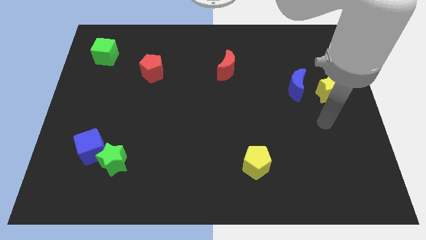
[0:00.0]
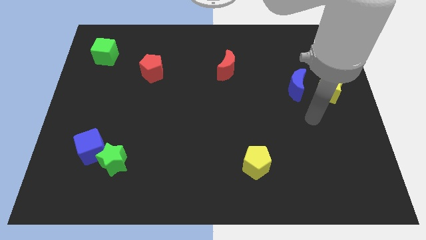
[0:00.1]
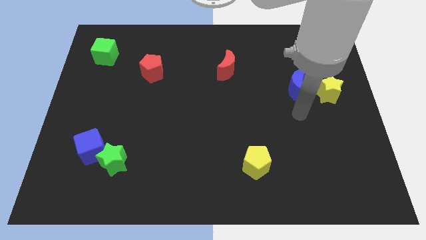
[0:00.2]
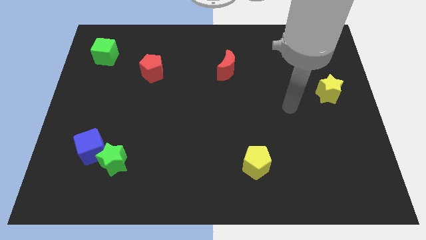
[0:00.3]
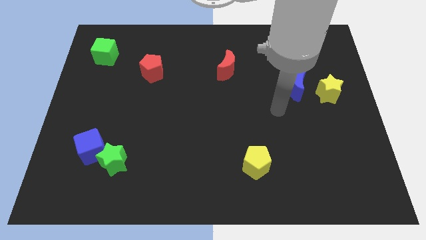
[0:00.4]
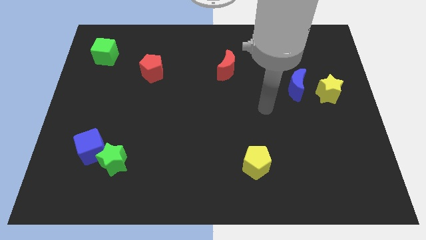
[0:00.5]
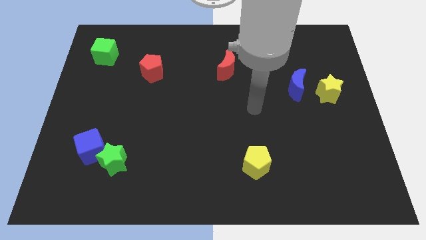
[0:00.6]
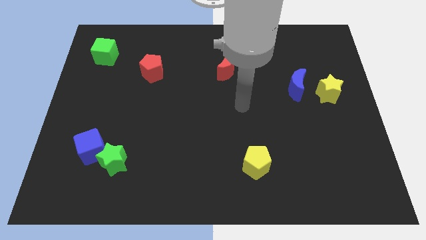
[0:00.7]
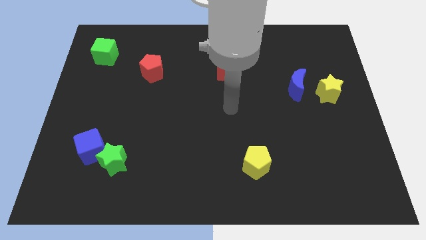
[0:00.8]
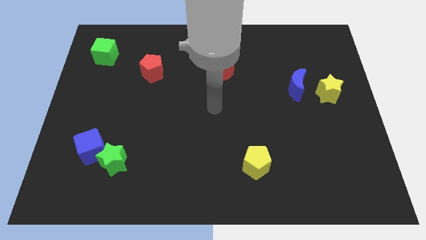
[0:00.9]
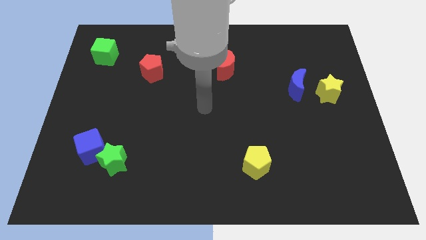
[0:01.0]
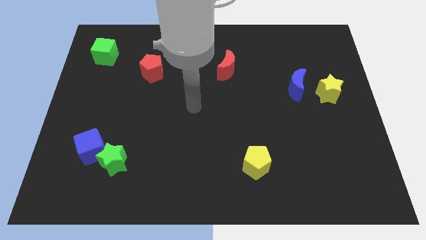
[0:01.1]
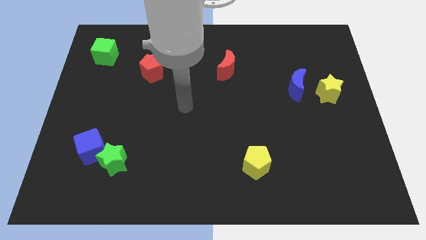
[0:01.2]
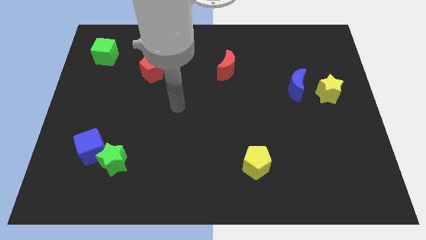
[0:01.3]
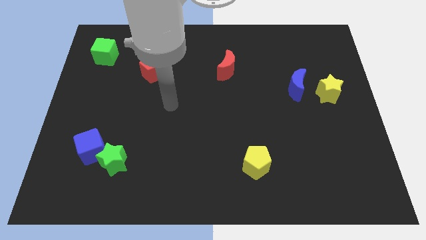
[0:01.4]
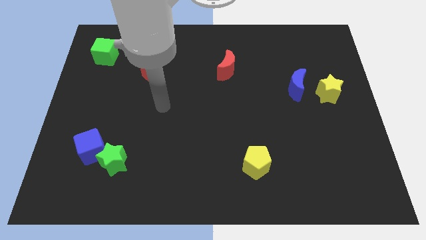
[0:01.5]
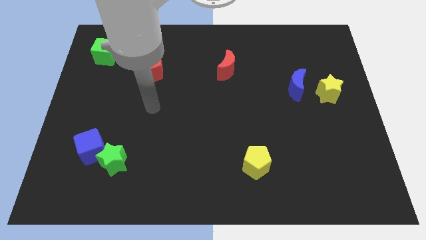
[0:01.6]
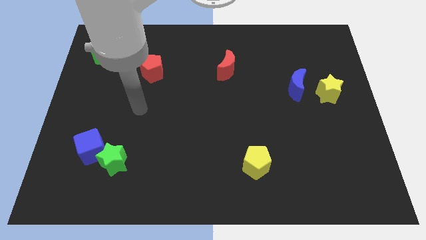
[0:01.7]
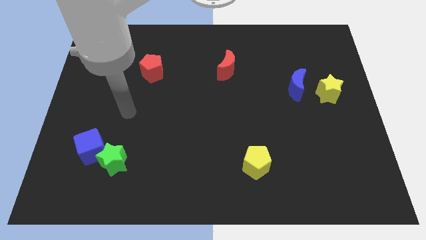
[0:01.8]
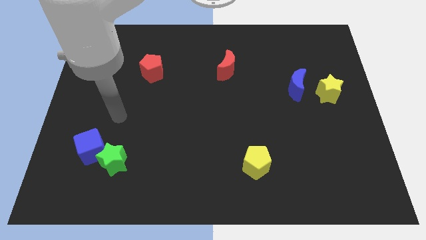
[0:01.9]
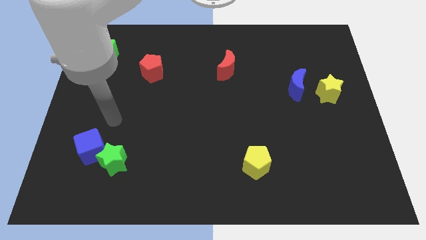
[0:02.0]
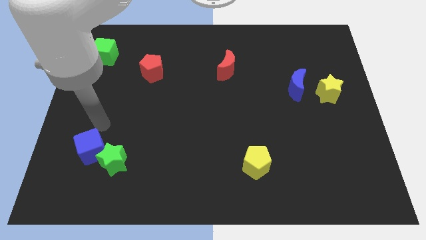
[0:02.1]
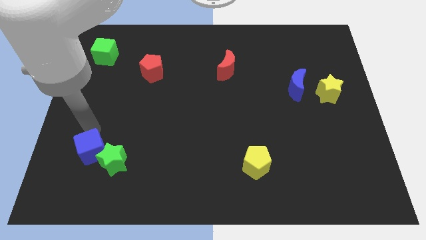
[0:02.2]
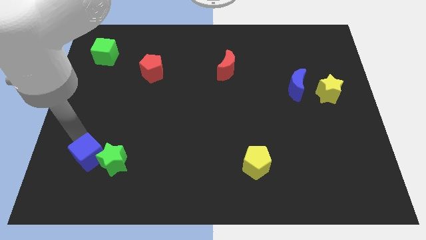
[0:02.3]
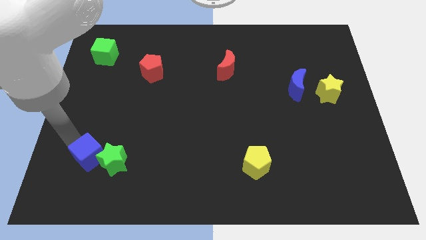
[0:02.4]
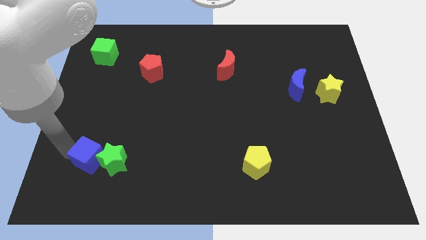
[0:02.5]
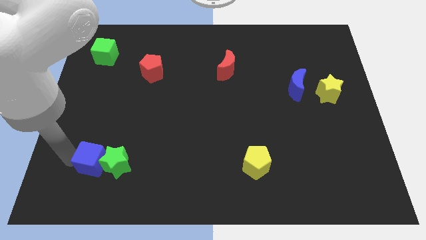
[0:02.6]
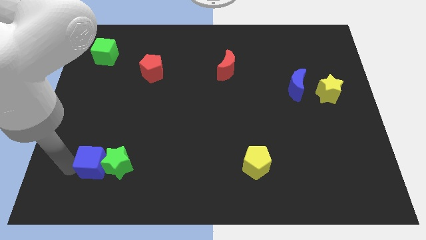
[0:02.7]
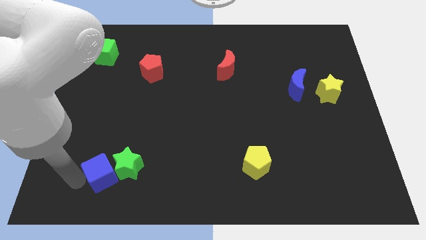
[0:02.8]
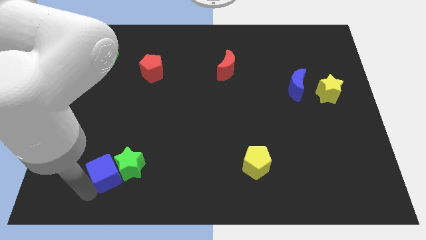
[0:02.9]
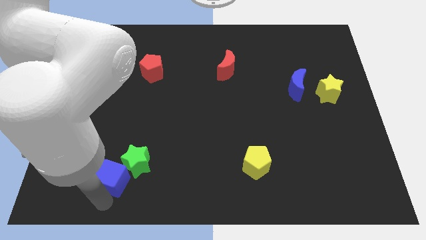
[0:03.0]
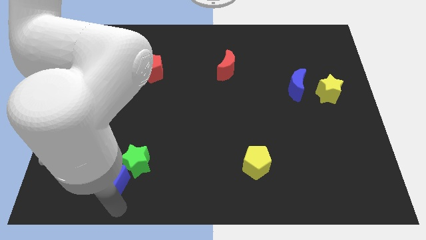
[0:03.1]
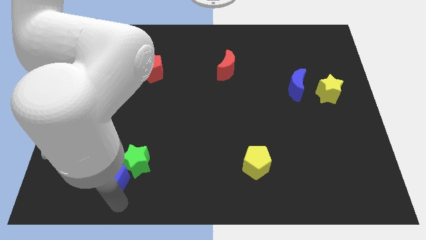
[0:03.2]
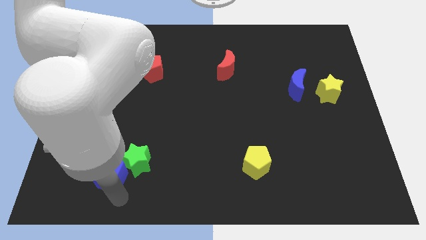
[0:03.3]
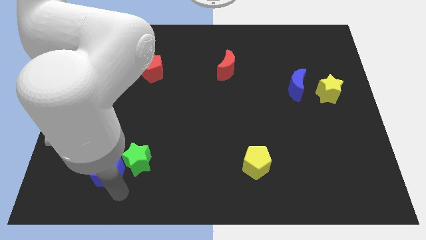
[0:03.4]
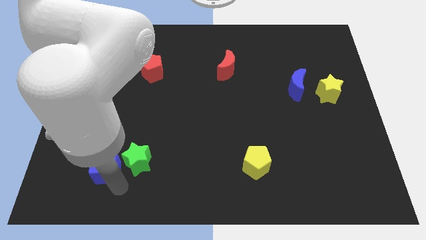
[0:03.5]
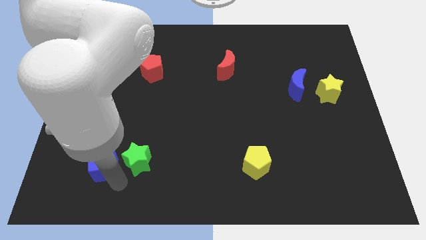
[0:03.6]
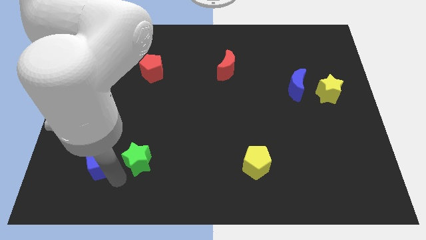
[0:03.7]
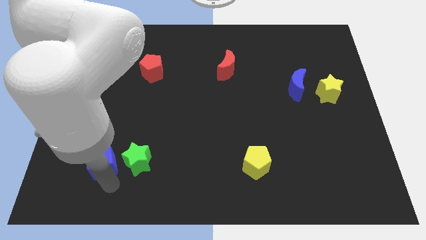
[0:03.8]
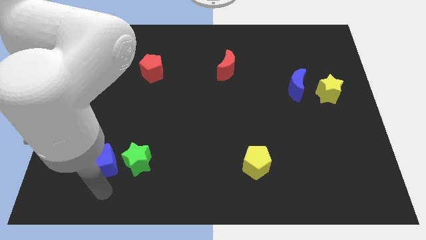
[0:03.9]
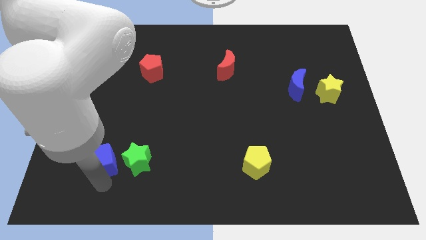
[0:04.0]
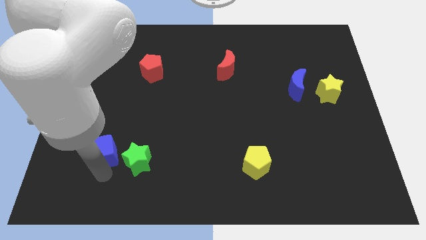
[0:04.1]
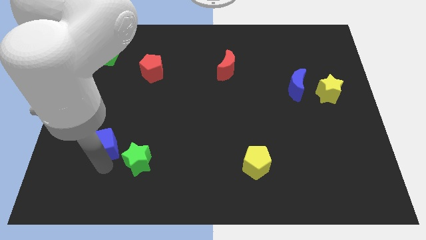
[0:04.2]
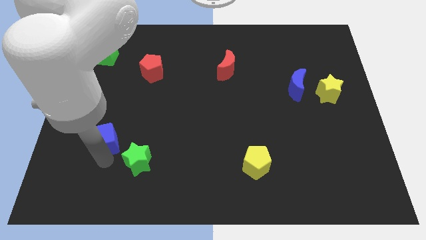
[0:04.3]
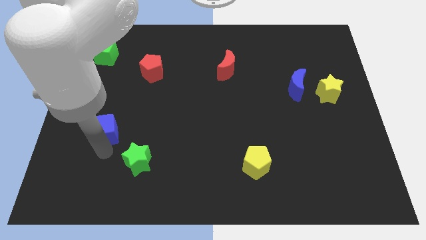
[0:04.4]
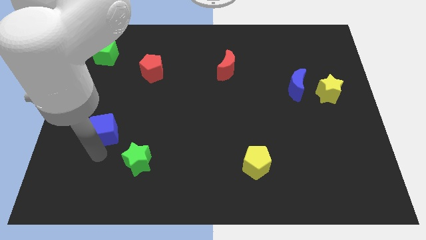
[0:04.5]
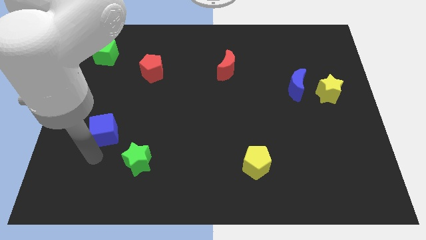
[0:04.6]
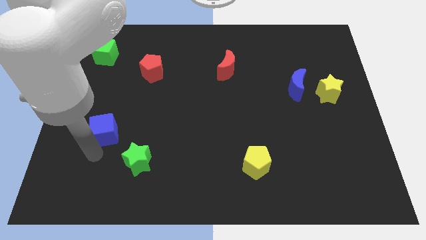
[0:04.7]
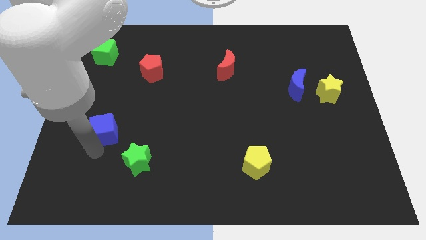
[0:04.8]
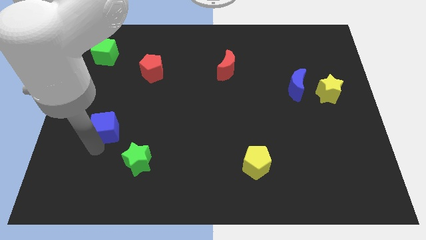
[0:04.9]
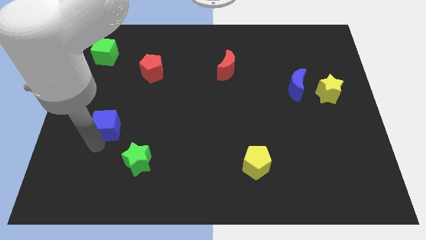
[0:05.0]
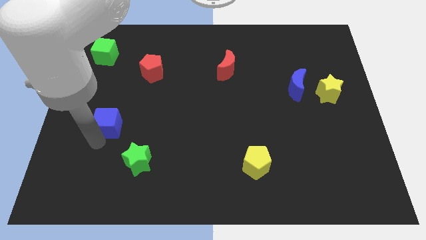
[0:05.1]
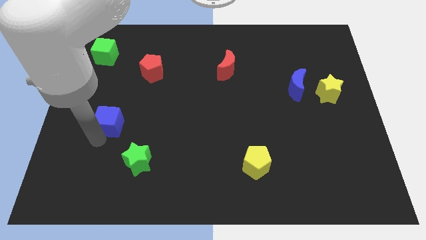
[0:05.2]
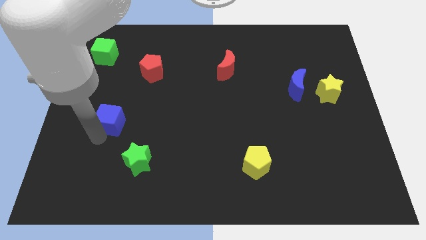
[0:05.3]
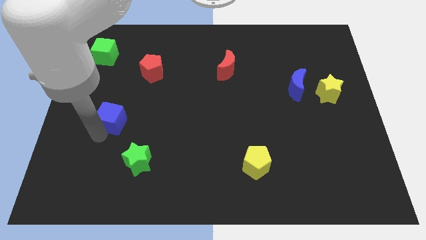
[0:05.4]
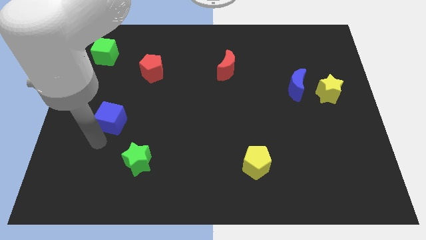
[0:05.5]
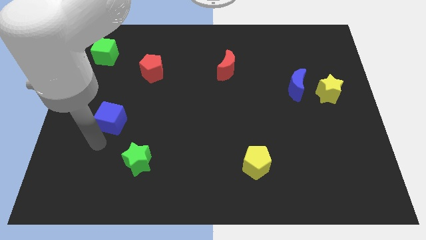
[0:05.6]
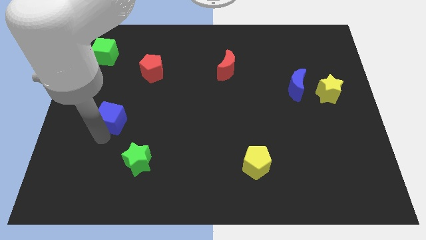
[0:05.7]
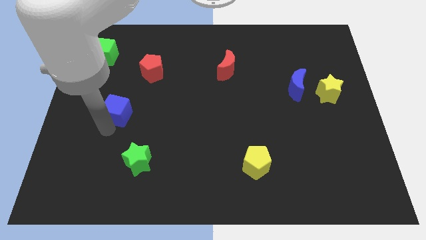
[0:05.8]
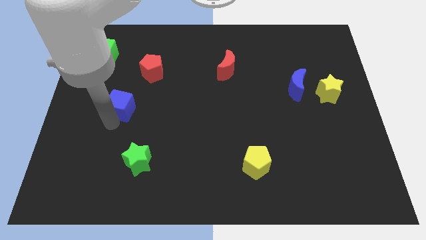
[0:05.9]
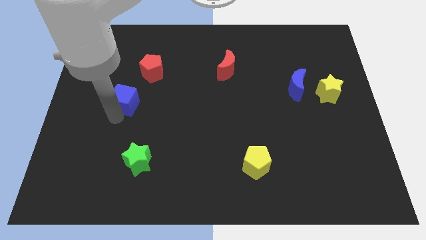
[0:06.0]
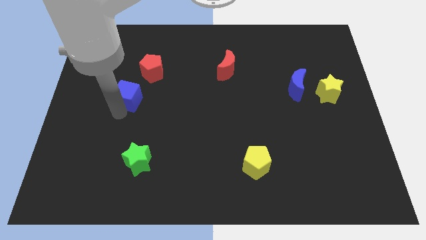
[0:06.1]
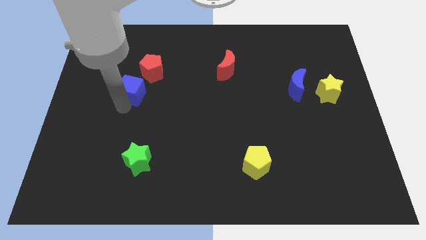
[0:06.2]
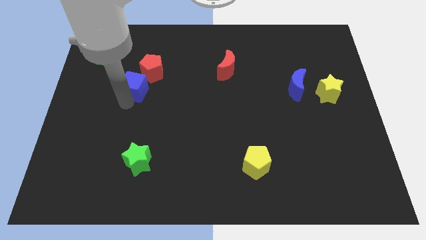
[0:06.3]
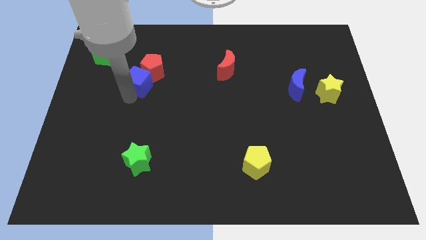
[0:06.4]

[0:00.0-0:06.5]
move the blue cube to the red pentagon

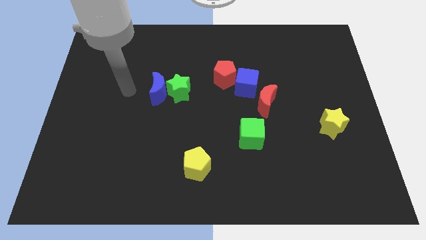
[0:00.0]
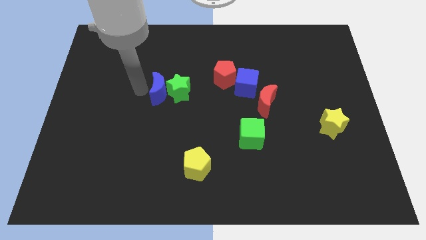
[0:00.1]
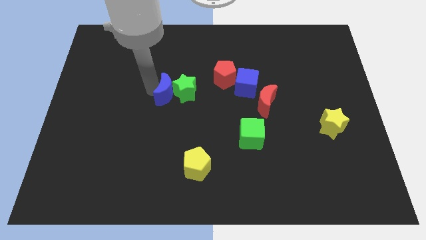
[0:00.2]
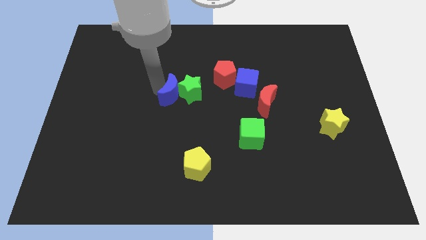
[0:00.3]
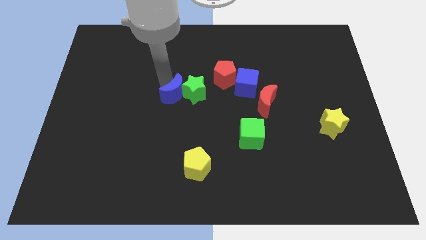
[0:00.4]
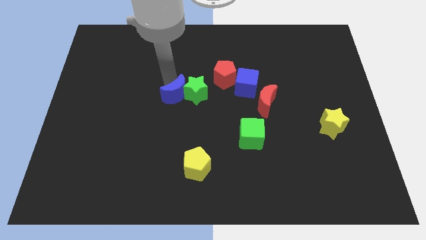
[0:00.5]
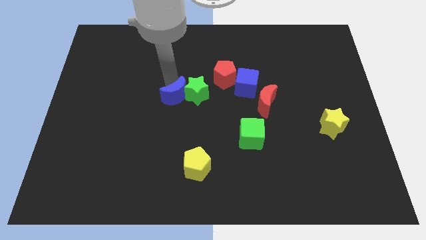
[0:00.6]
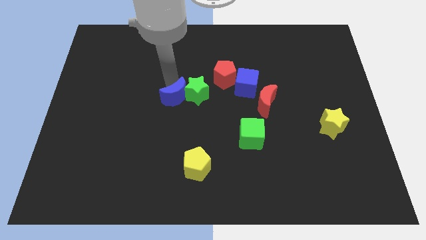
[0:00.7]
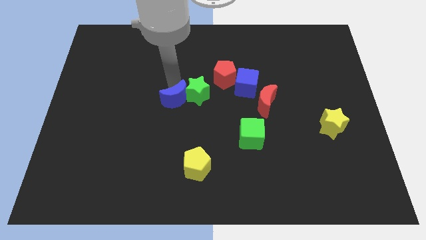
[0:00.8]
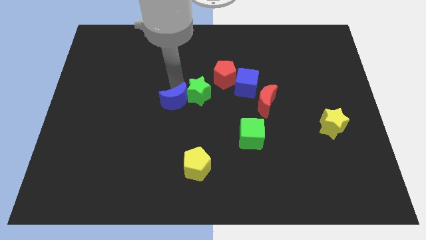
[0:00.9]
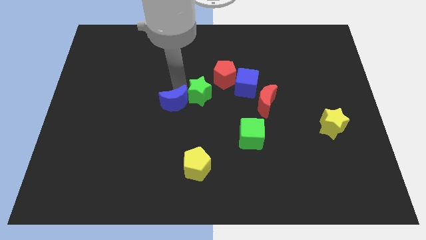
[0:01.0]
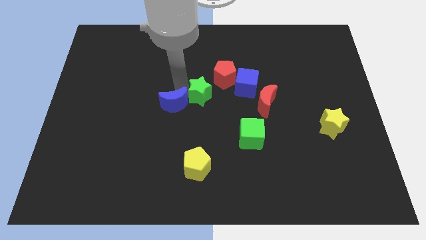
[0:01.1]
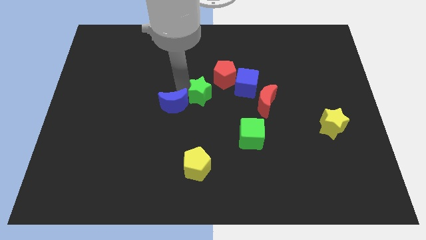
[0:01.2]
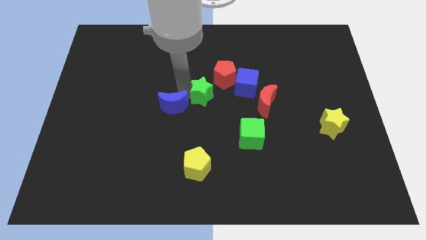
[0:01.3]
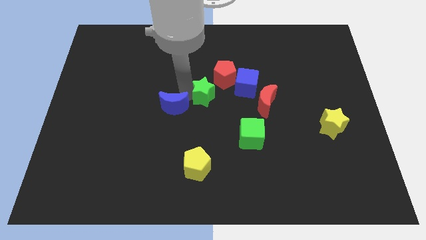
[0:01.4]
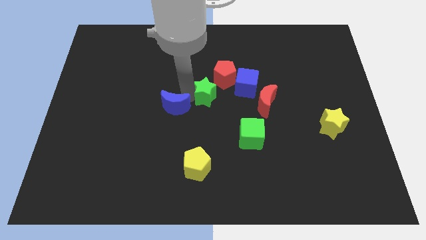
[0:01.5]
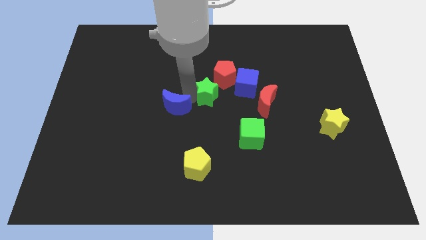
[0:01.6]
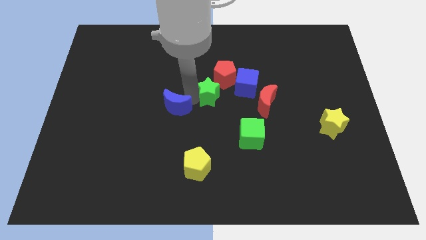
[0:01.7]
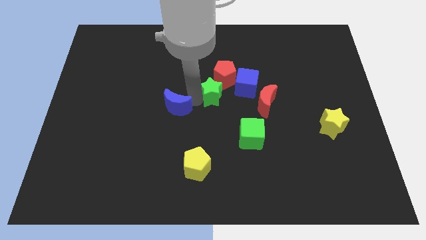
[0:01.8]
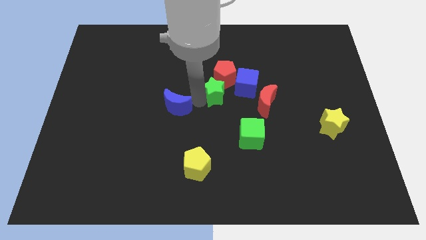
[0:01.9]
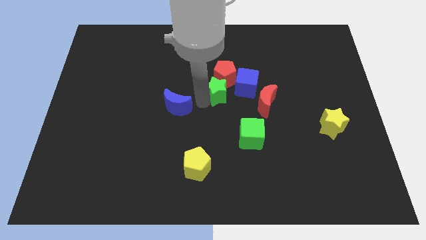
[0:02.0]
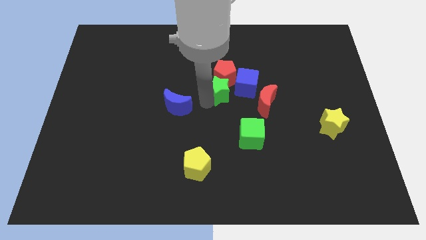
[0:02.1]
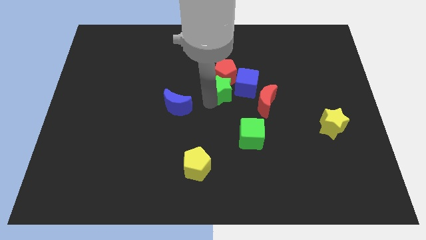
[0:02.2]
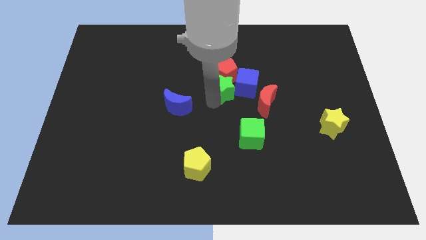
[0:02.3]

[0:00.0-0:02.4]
put the green star to the blue cube
